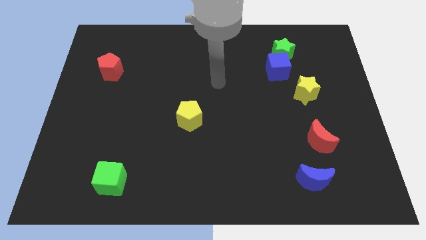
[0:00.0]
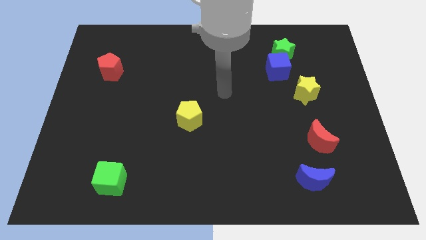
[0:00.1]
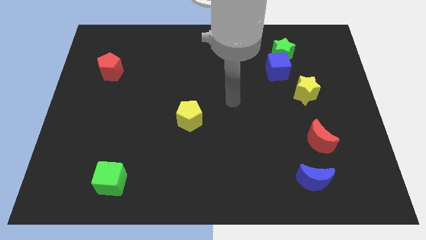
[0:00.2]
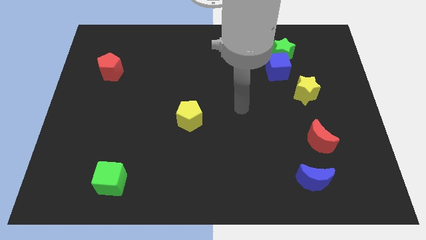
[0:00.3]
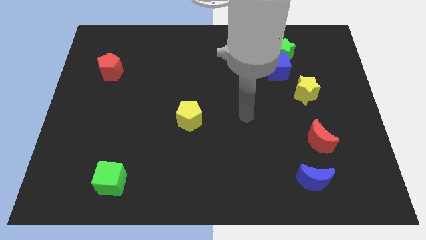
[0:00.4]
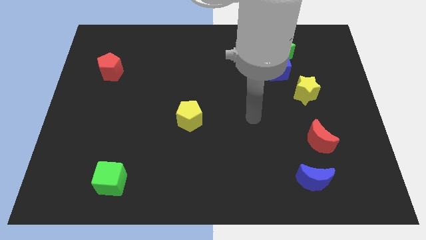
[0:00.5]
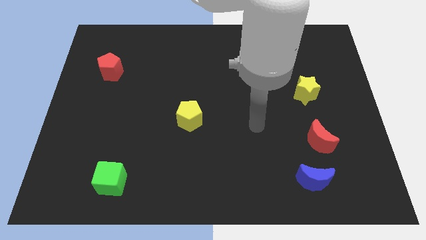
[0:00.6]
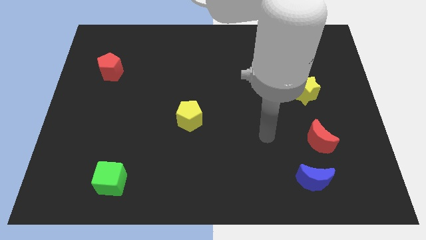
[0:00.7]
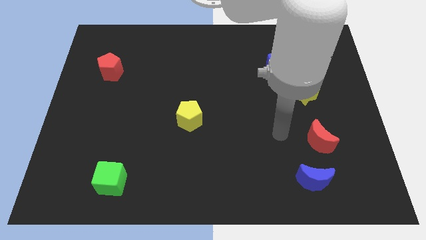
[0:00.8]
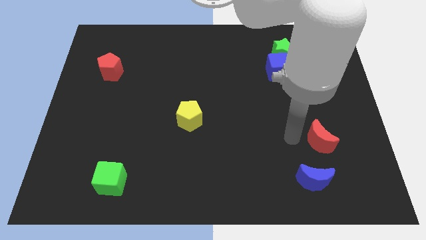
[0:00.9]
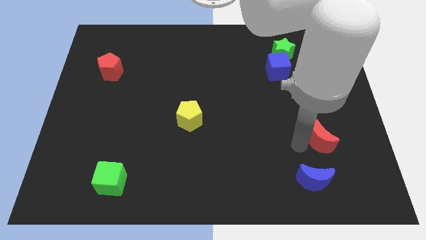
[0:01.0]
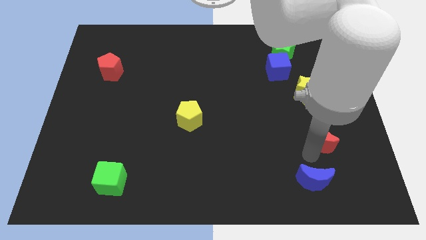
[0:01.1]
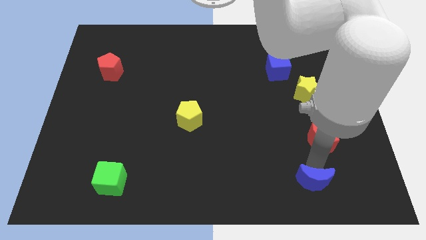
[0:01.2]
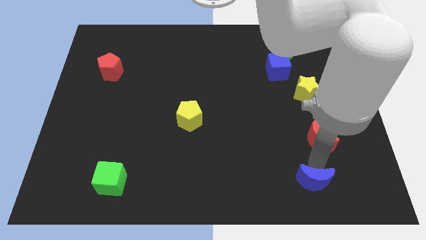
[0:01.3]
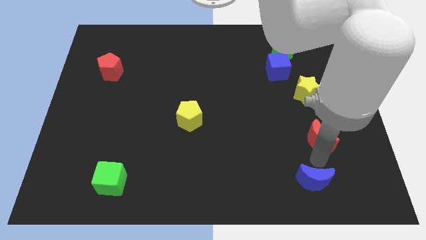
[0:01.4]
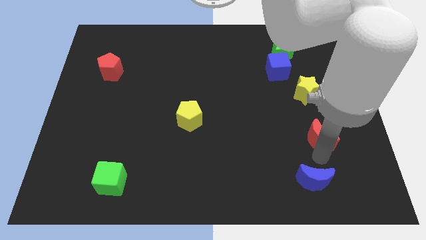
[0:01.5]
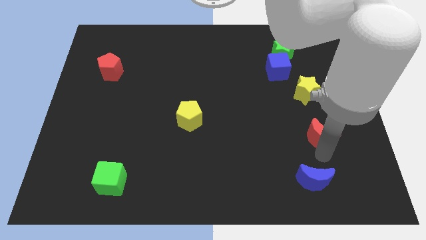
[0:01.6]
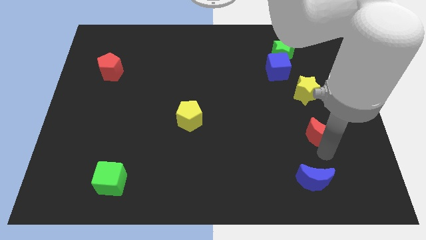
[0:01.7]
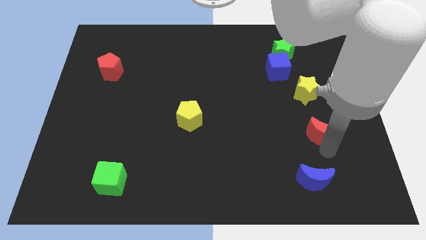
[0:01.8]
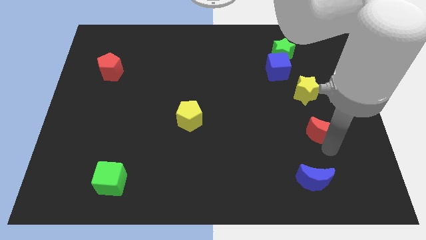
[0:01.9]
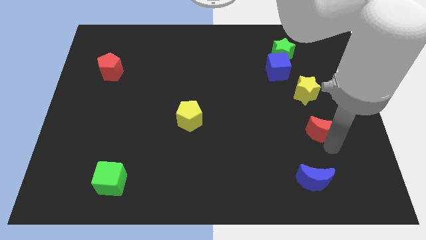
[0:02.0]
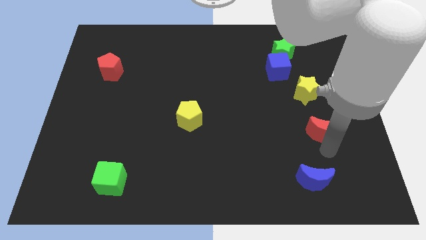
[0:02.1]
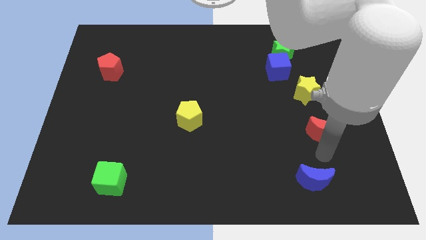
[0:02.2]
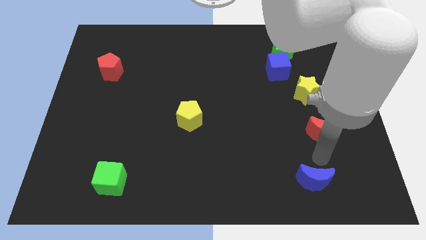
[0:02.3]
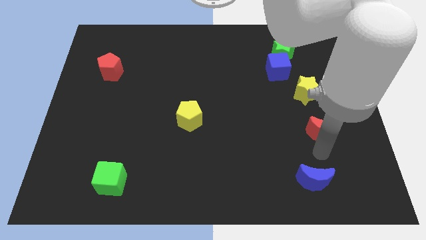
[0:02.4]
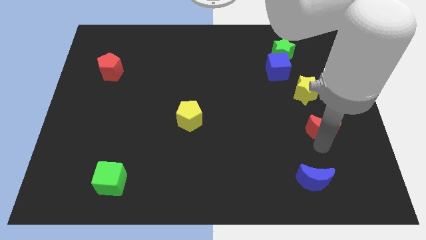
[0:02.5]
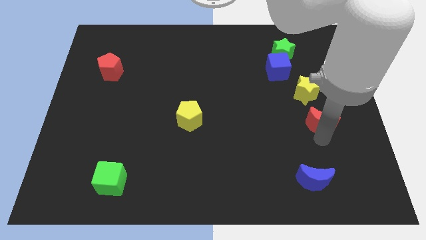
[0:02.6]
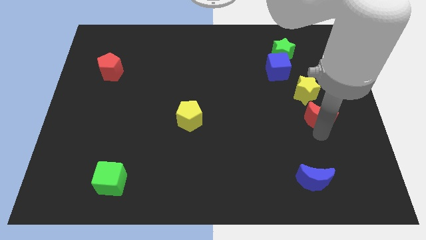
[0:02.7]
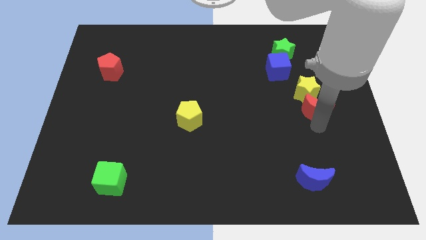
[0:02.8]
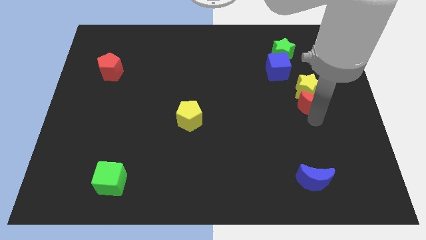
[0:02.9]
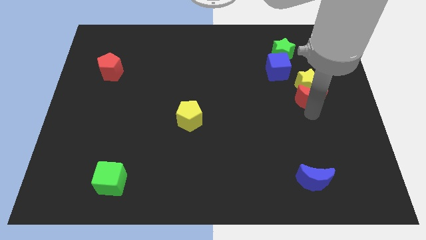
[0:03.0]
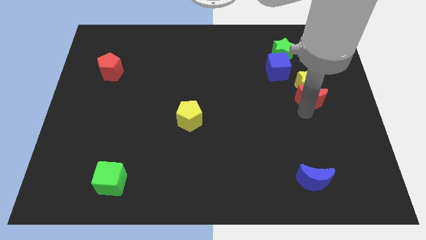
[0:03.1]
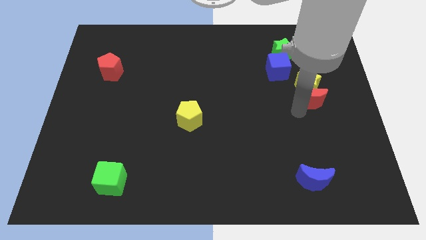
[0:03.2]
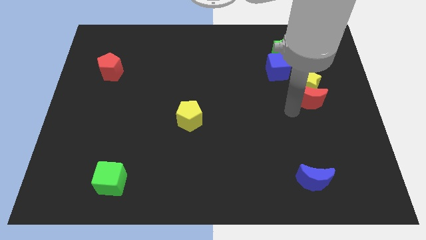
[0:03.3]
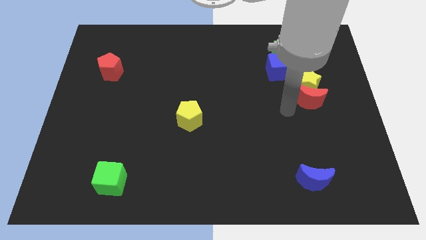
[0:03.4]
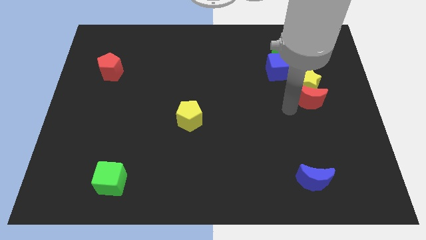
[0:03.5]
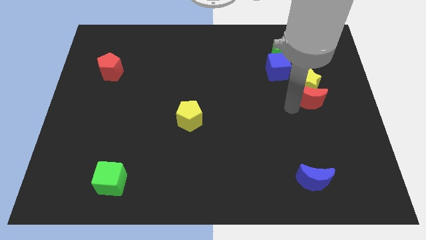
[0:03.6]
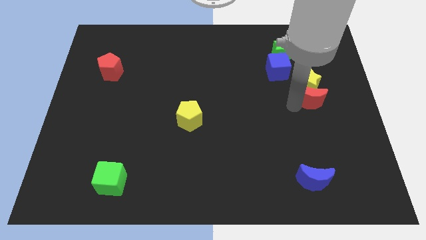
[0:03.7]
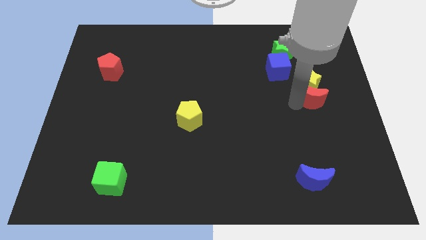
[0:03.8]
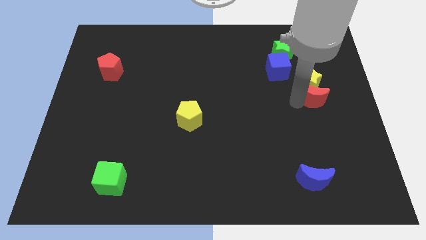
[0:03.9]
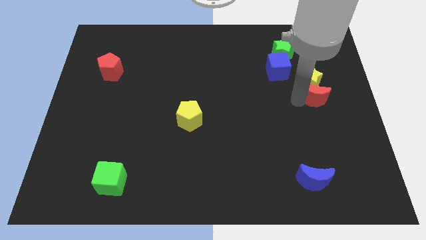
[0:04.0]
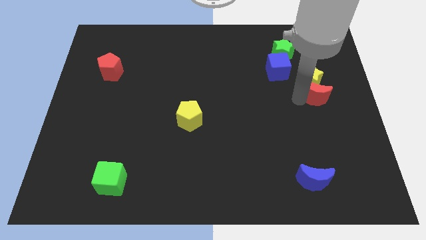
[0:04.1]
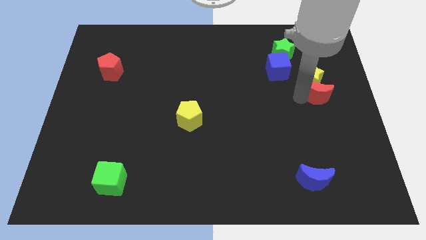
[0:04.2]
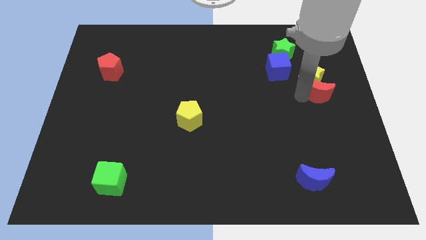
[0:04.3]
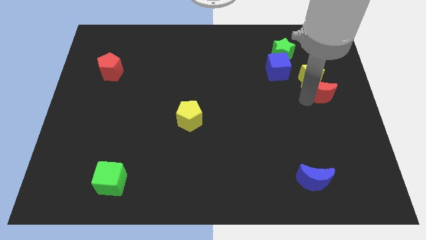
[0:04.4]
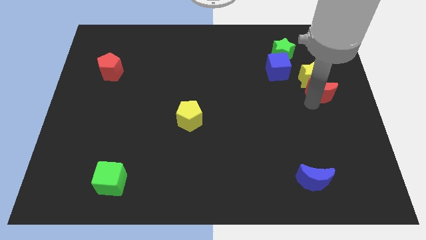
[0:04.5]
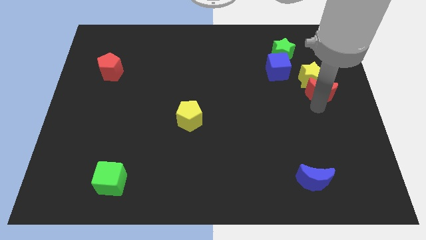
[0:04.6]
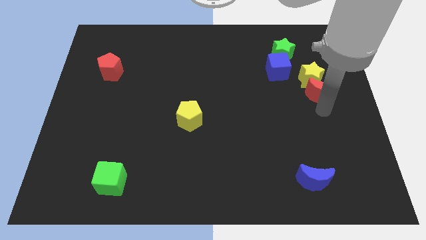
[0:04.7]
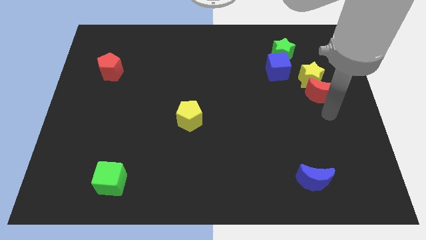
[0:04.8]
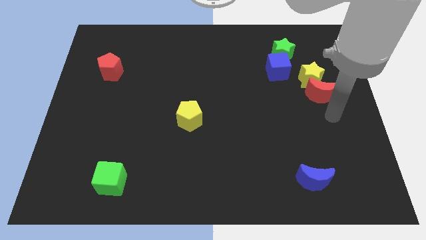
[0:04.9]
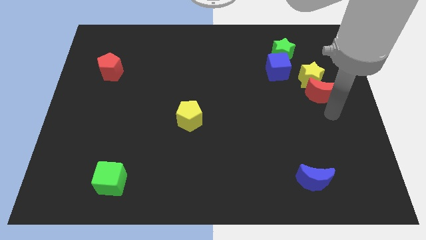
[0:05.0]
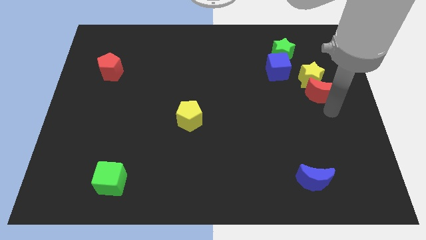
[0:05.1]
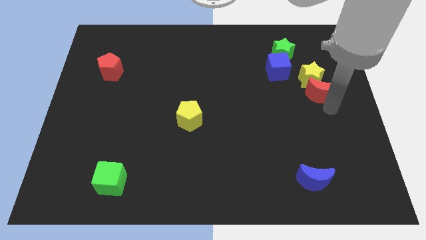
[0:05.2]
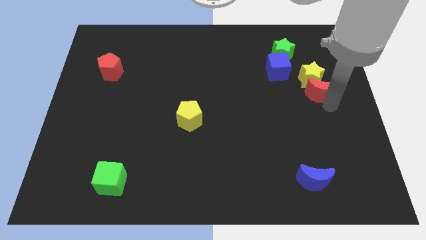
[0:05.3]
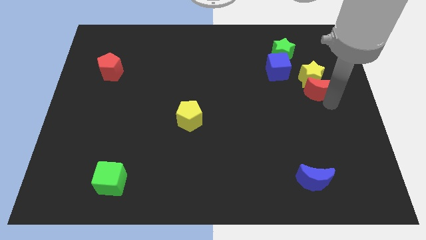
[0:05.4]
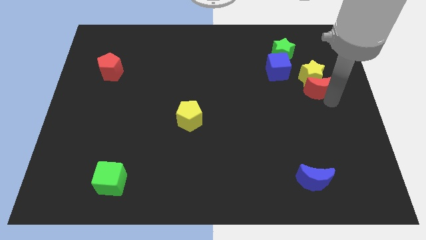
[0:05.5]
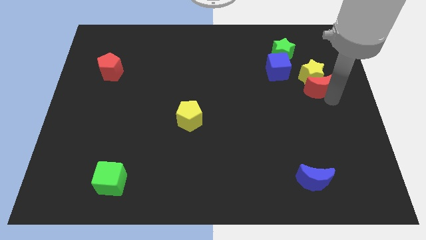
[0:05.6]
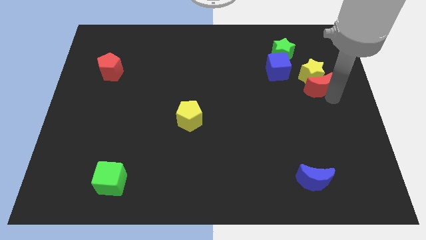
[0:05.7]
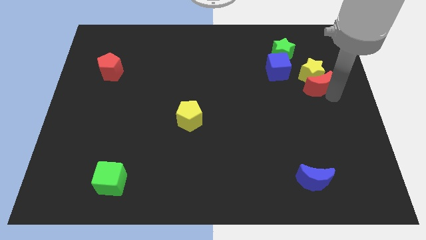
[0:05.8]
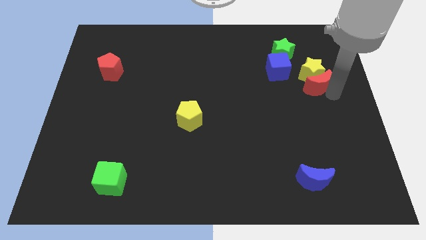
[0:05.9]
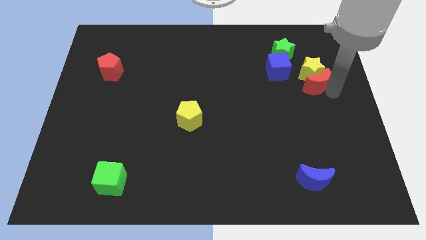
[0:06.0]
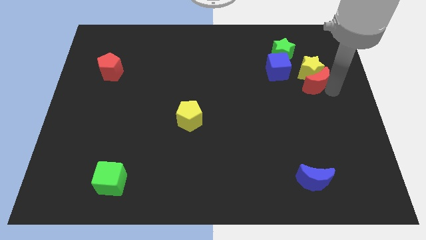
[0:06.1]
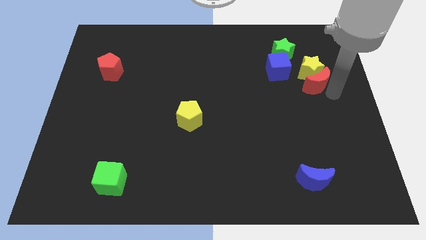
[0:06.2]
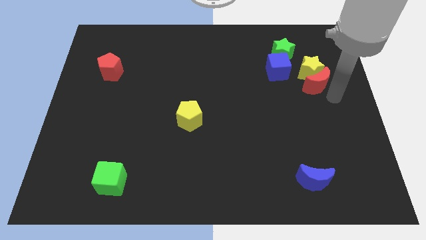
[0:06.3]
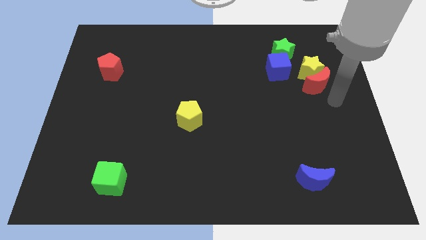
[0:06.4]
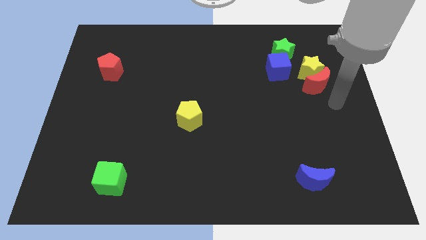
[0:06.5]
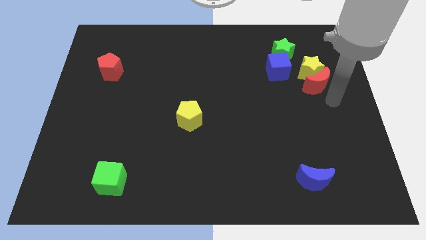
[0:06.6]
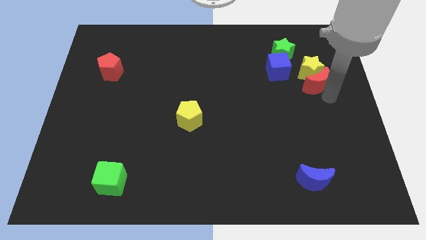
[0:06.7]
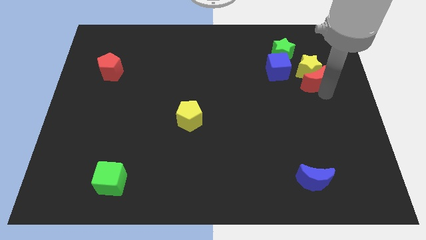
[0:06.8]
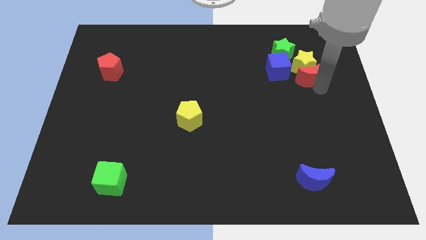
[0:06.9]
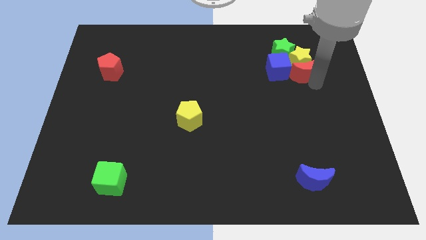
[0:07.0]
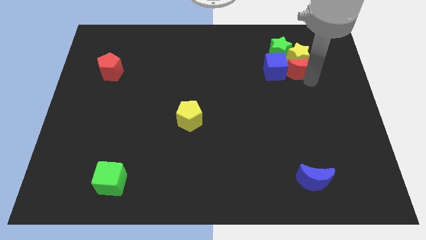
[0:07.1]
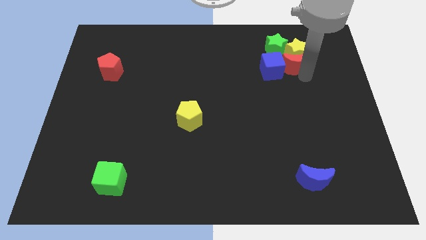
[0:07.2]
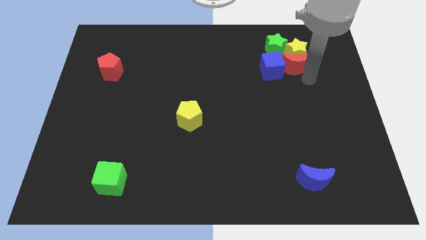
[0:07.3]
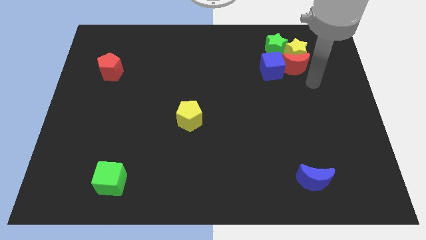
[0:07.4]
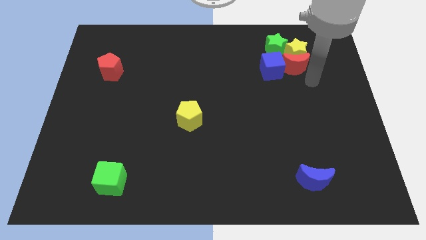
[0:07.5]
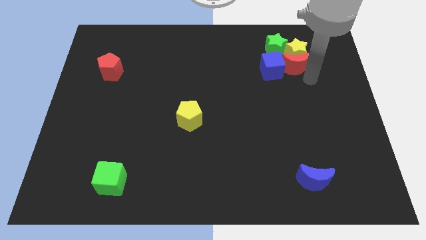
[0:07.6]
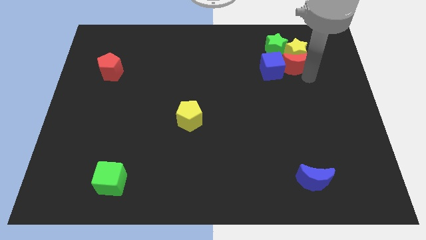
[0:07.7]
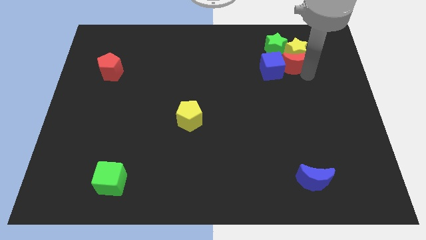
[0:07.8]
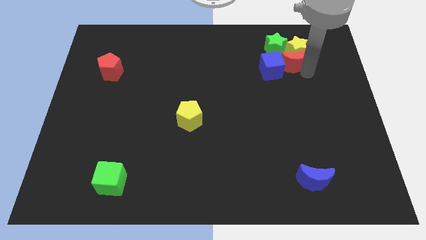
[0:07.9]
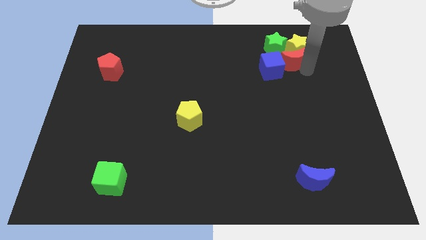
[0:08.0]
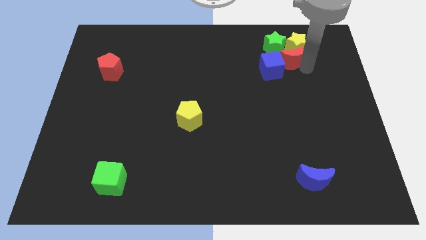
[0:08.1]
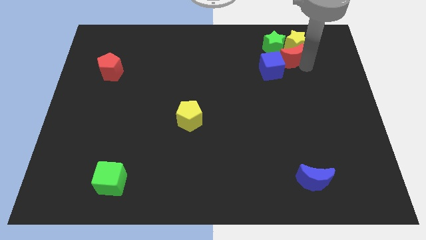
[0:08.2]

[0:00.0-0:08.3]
slide the red moon to the green star

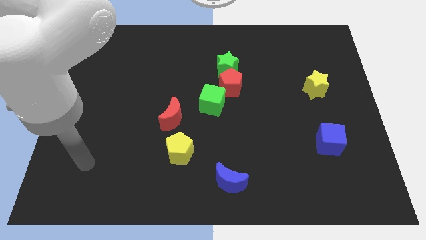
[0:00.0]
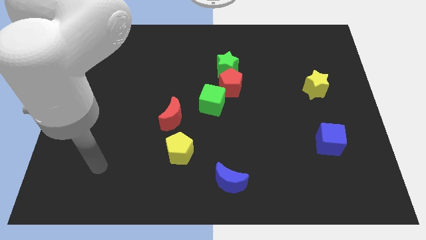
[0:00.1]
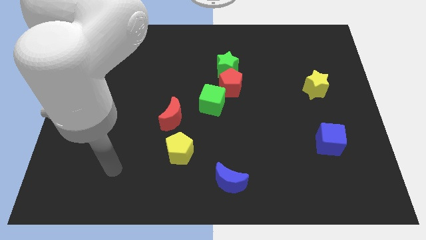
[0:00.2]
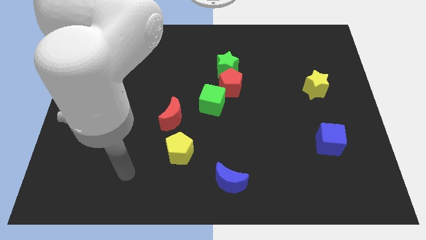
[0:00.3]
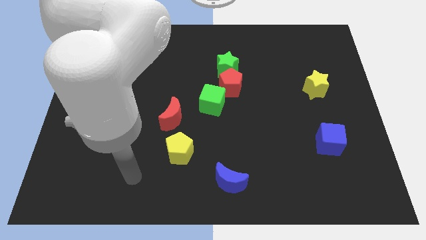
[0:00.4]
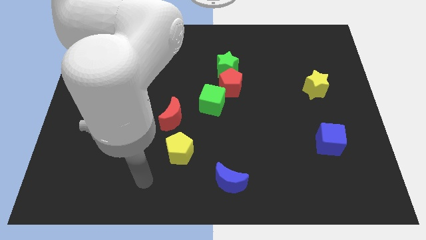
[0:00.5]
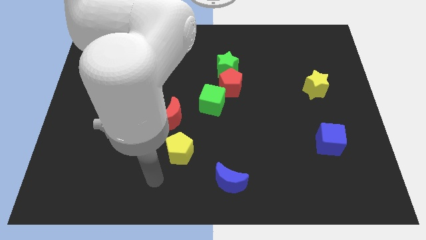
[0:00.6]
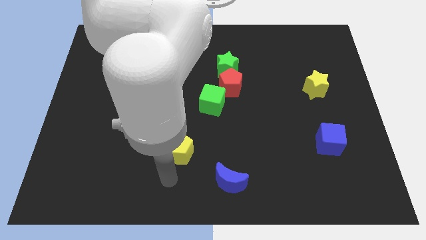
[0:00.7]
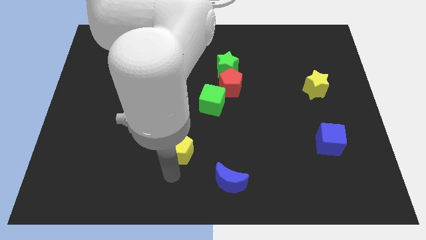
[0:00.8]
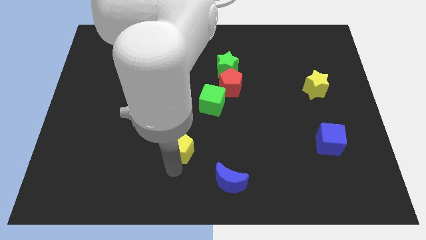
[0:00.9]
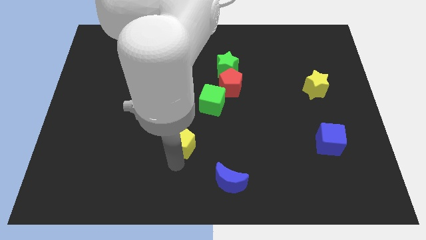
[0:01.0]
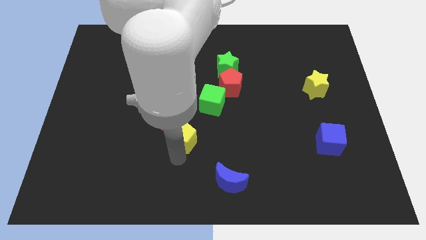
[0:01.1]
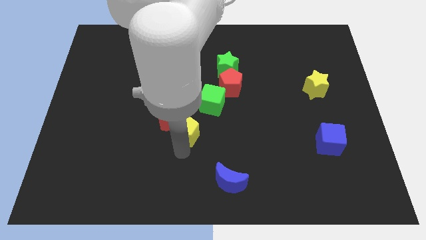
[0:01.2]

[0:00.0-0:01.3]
push the yellow pentagon close to the red moon
